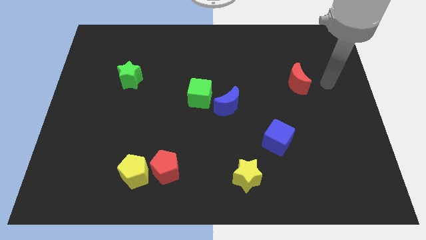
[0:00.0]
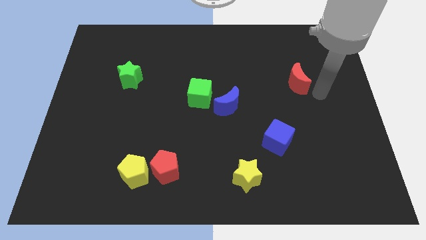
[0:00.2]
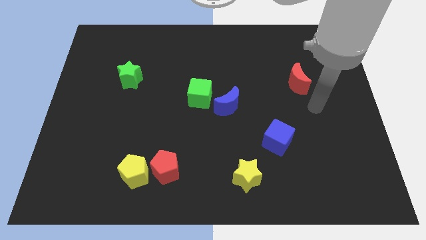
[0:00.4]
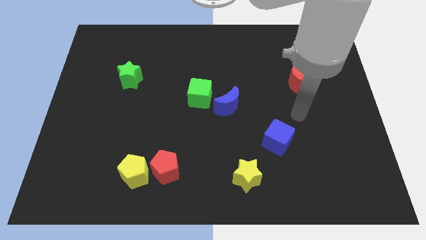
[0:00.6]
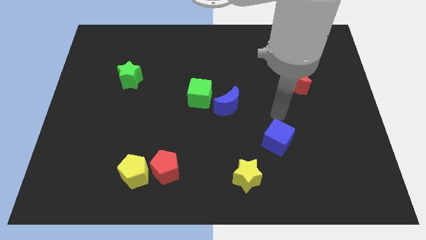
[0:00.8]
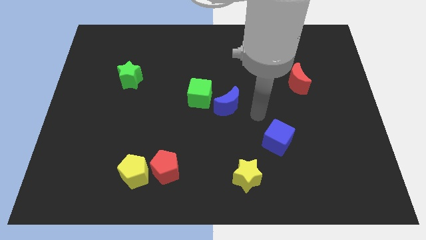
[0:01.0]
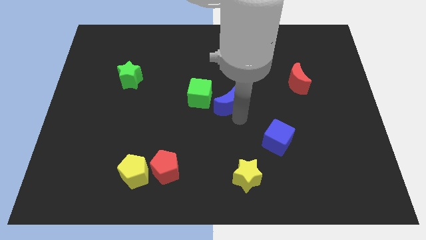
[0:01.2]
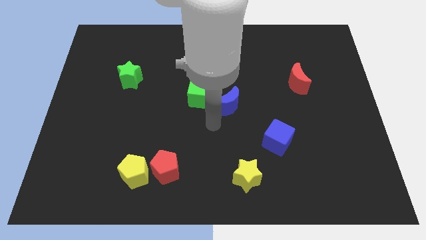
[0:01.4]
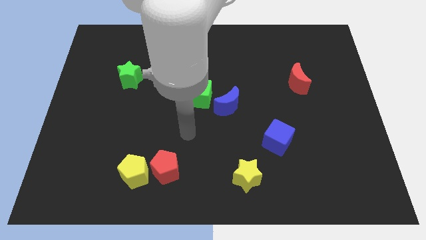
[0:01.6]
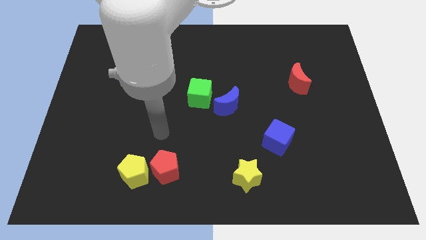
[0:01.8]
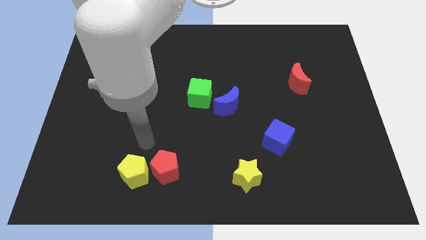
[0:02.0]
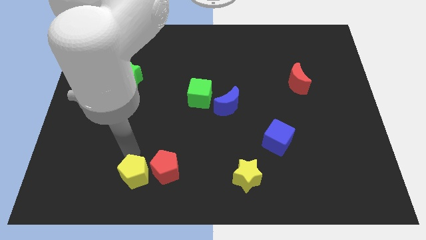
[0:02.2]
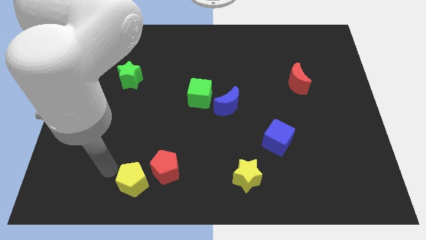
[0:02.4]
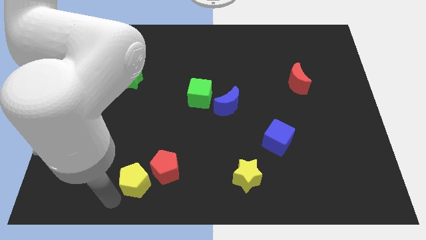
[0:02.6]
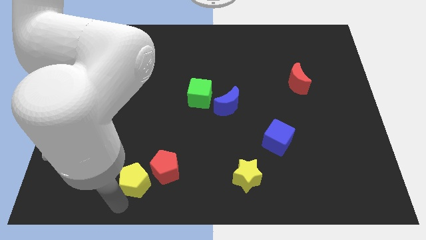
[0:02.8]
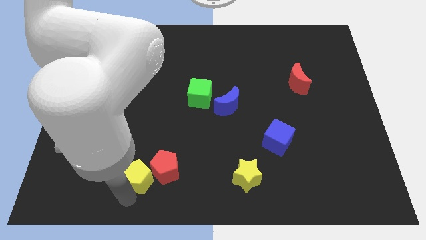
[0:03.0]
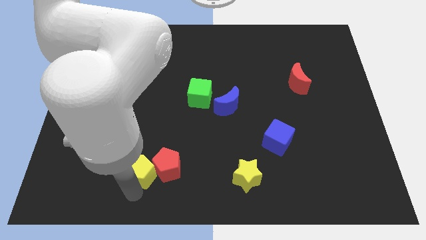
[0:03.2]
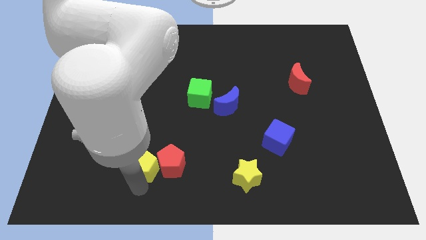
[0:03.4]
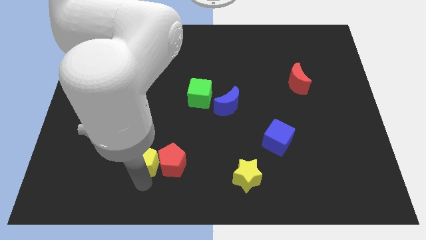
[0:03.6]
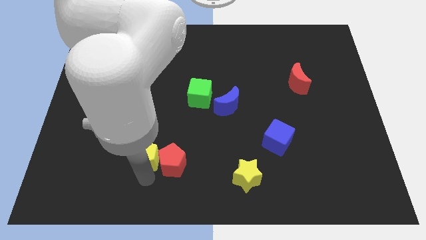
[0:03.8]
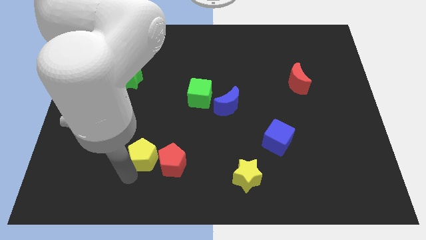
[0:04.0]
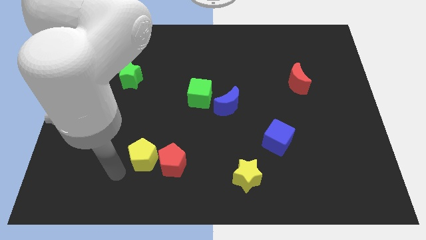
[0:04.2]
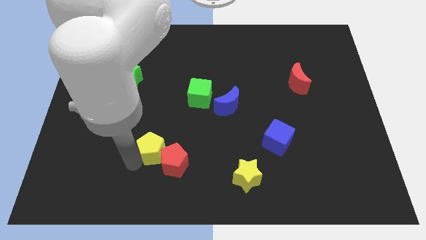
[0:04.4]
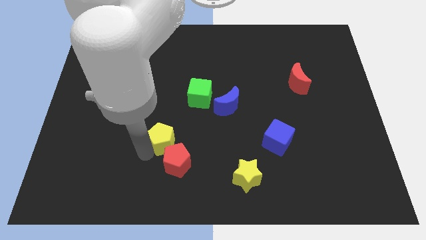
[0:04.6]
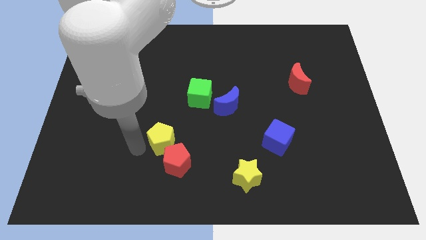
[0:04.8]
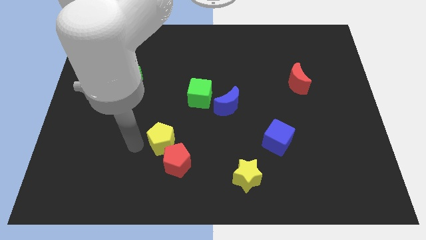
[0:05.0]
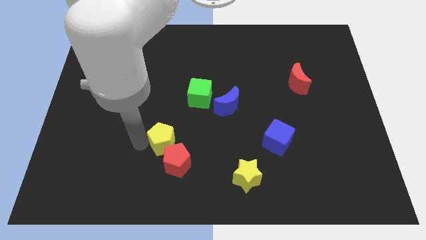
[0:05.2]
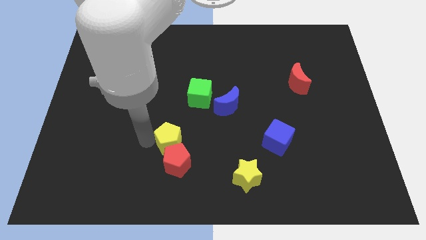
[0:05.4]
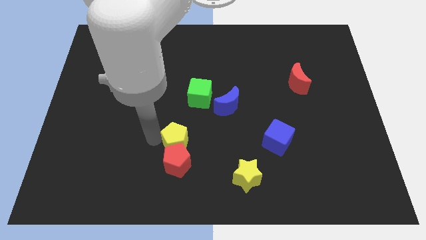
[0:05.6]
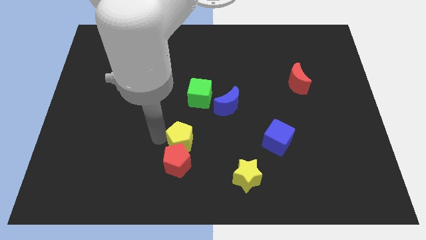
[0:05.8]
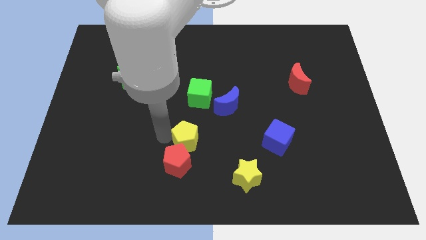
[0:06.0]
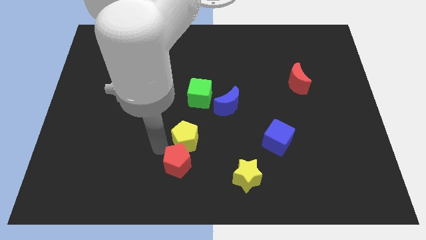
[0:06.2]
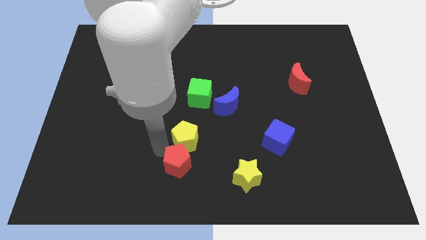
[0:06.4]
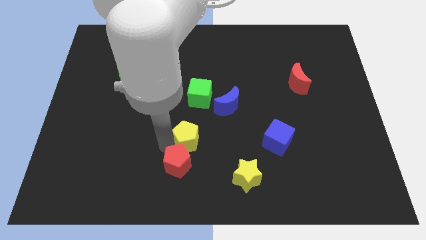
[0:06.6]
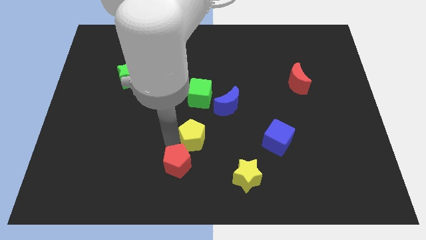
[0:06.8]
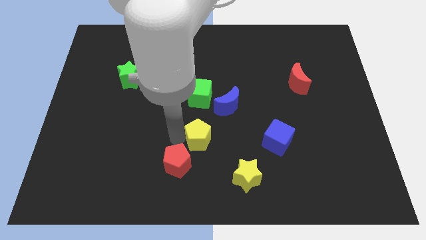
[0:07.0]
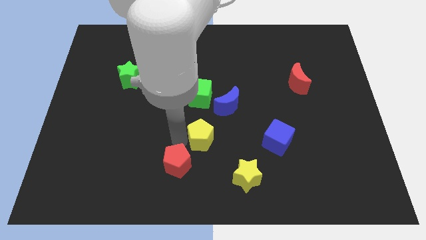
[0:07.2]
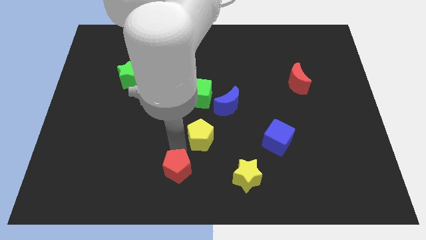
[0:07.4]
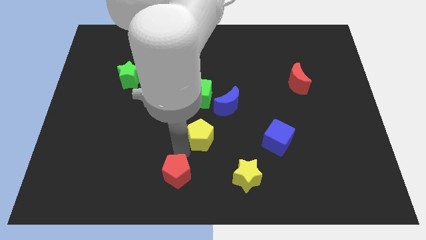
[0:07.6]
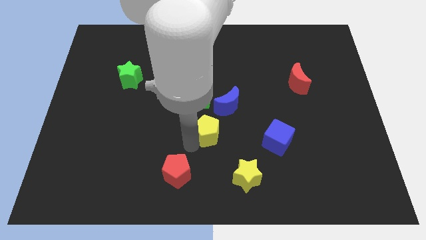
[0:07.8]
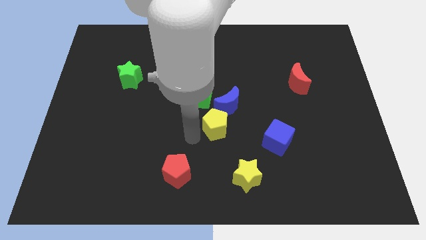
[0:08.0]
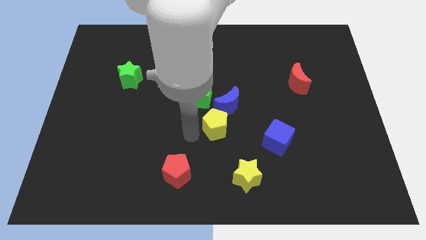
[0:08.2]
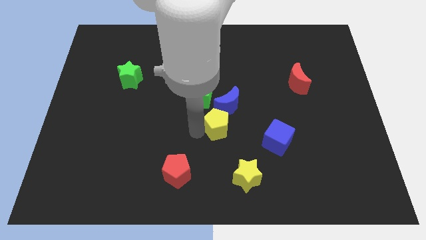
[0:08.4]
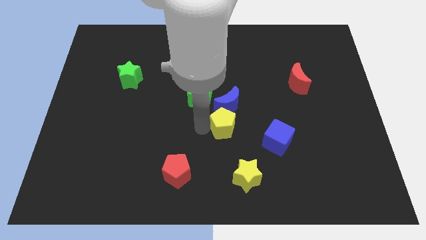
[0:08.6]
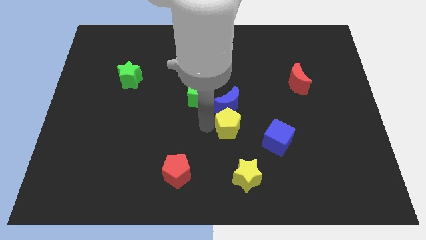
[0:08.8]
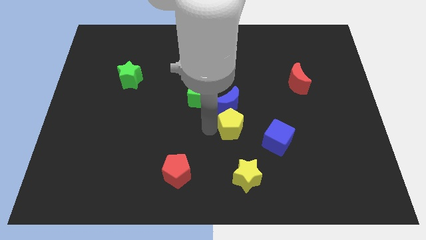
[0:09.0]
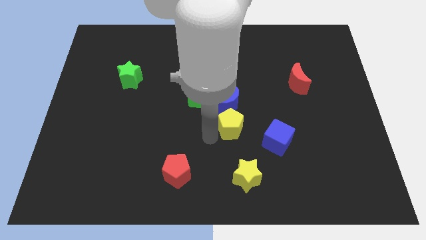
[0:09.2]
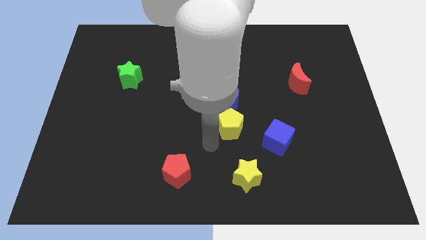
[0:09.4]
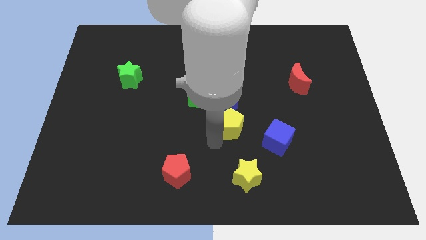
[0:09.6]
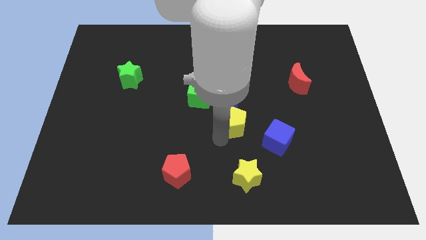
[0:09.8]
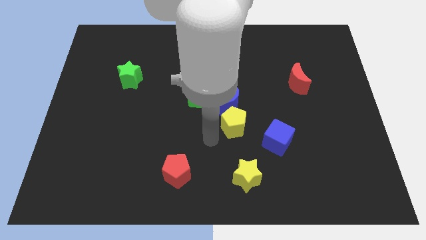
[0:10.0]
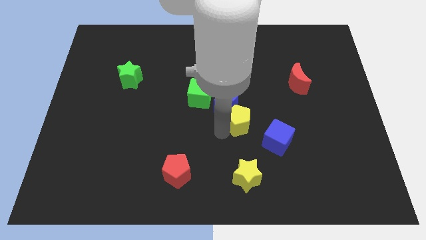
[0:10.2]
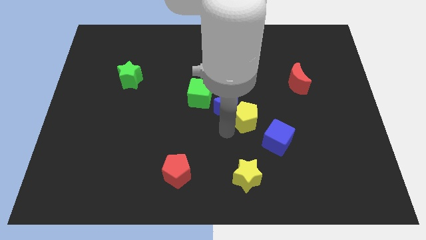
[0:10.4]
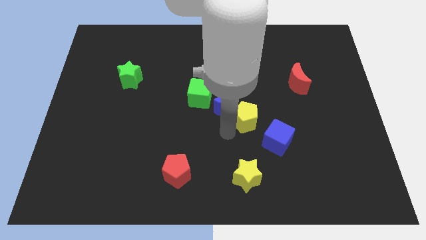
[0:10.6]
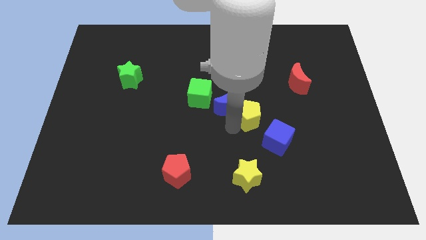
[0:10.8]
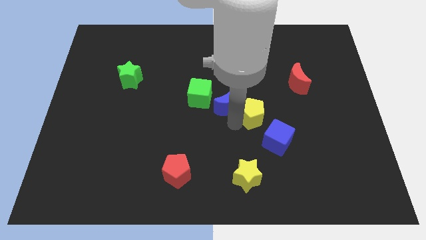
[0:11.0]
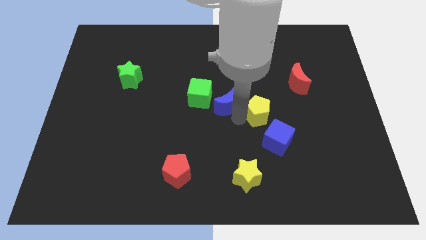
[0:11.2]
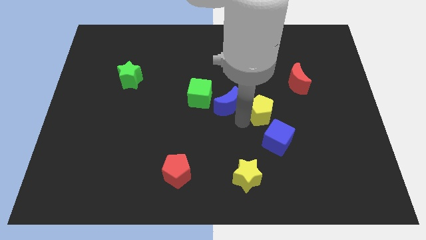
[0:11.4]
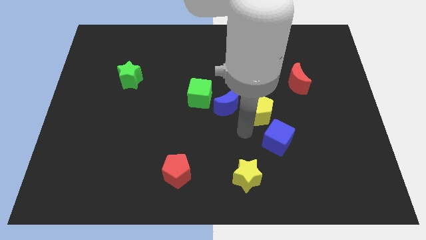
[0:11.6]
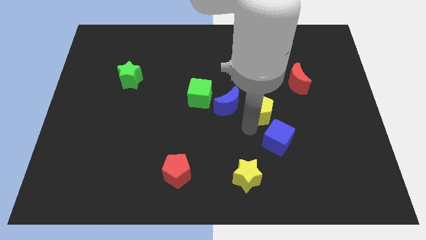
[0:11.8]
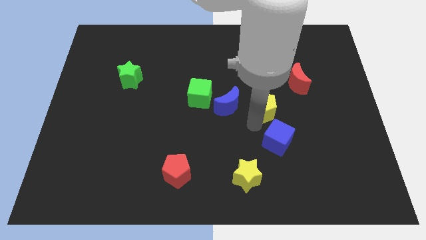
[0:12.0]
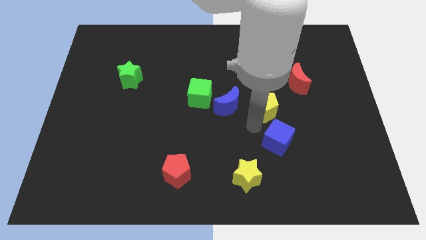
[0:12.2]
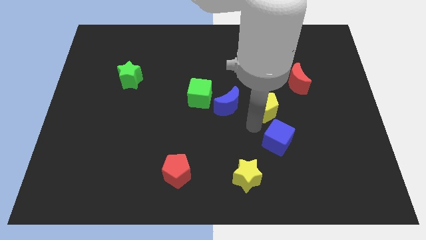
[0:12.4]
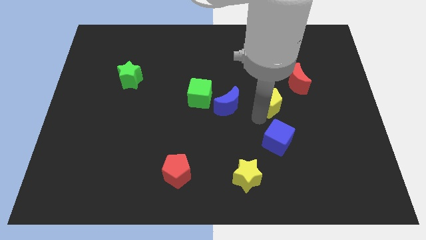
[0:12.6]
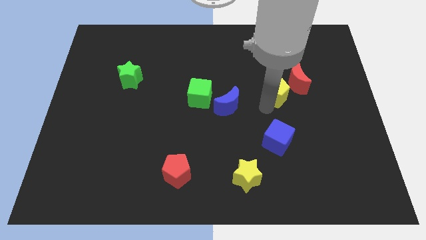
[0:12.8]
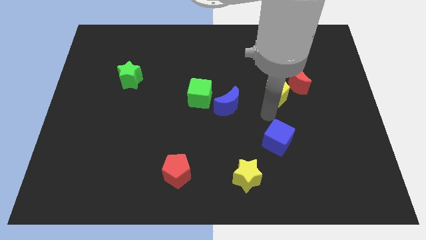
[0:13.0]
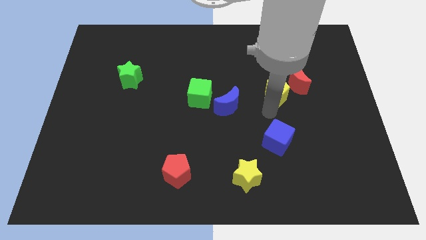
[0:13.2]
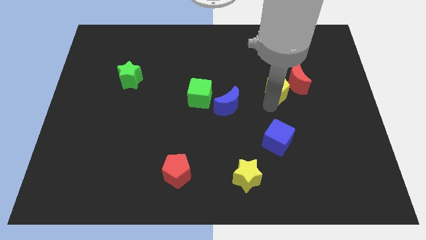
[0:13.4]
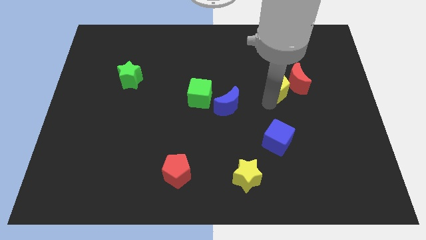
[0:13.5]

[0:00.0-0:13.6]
slide the yellow pentagon towards the red moon
